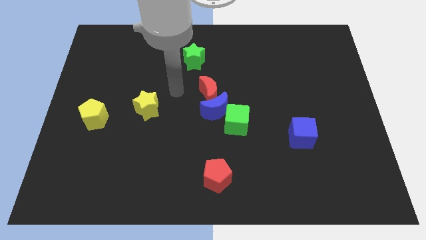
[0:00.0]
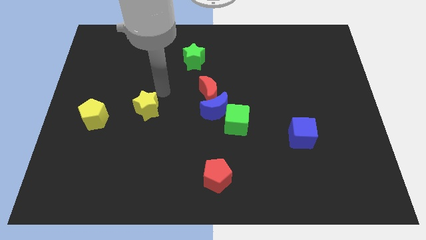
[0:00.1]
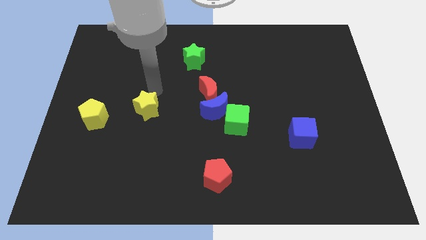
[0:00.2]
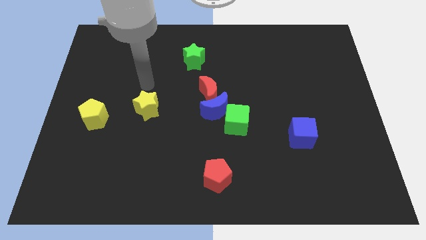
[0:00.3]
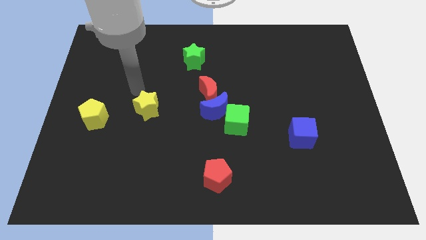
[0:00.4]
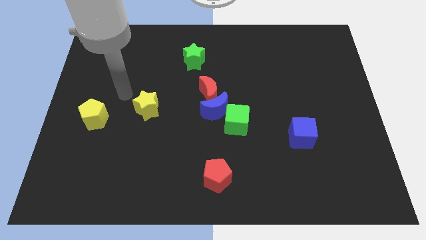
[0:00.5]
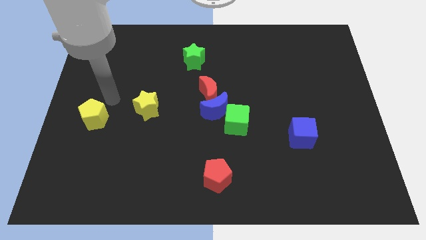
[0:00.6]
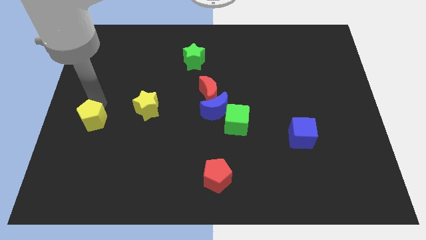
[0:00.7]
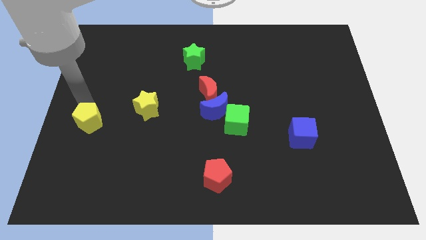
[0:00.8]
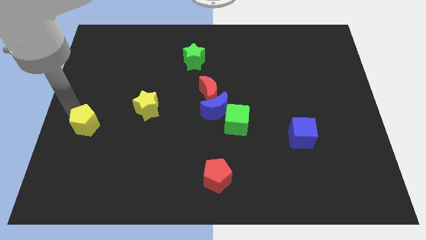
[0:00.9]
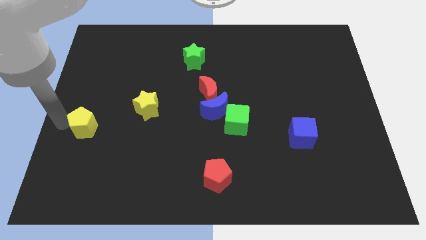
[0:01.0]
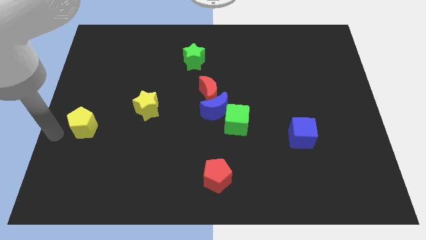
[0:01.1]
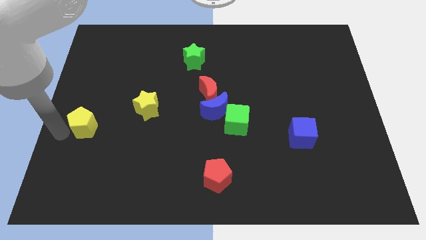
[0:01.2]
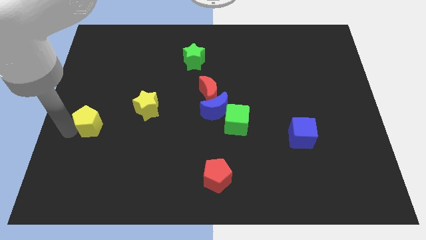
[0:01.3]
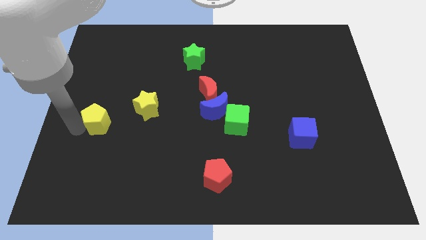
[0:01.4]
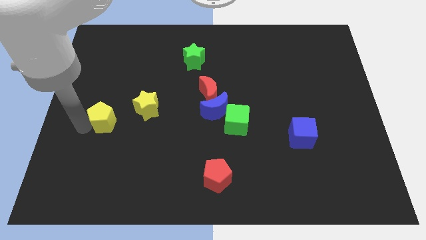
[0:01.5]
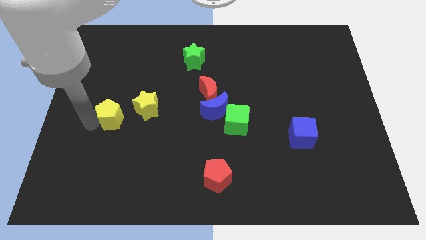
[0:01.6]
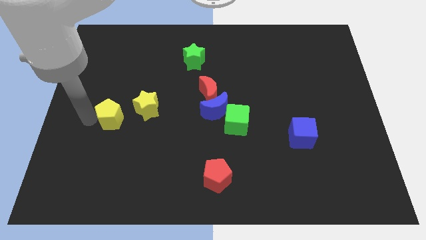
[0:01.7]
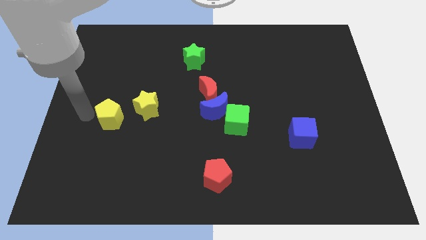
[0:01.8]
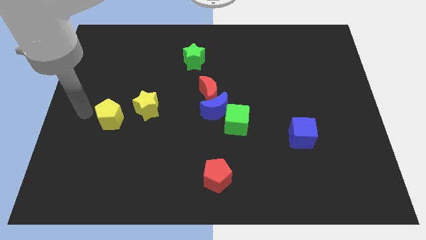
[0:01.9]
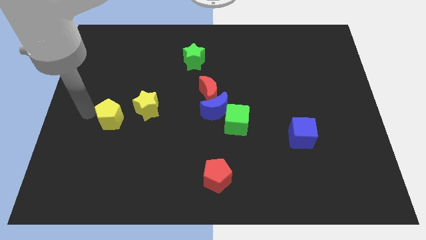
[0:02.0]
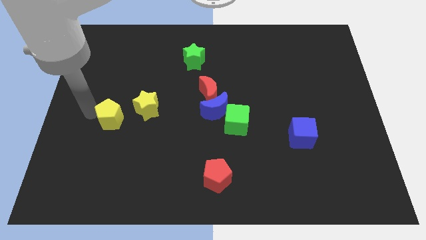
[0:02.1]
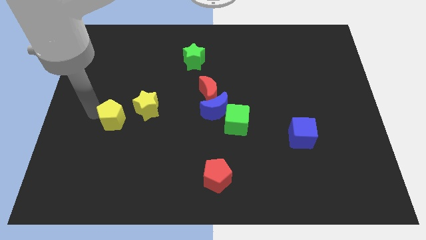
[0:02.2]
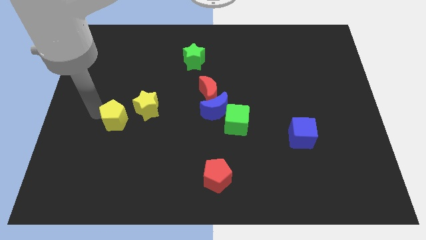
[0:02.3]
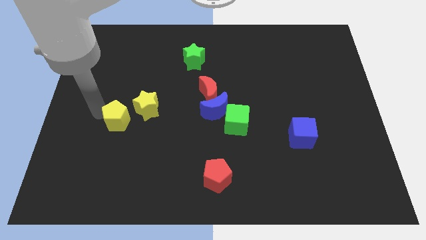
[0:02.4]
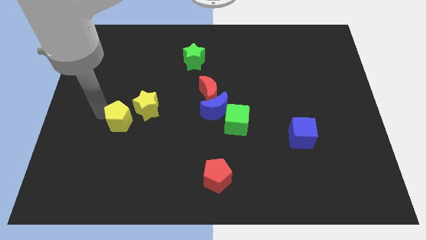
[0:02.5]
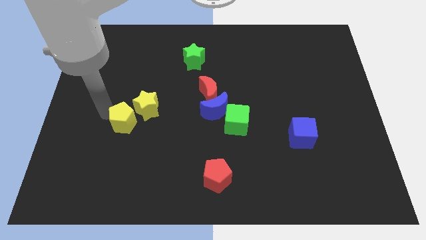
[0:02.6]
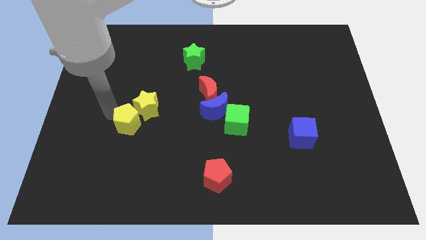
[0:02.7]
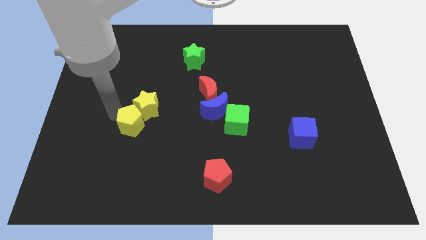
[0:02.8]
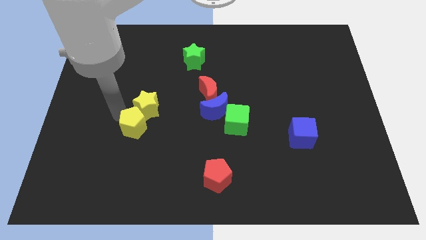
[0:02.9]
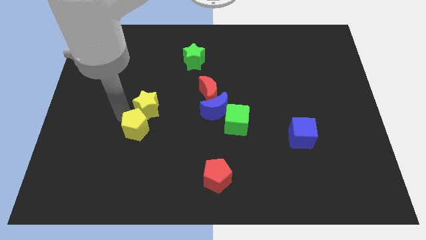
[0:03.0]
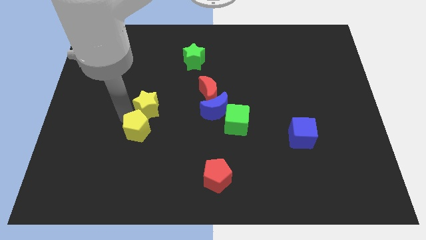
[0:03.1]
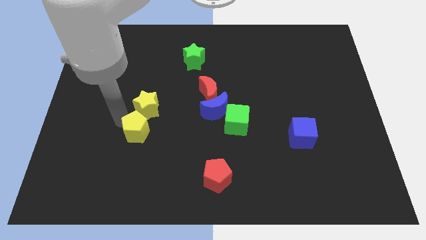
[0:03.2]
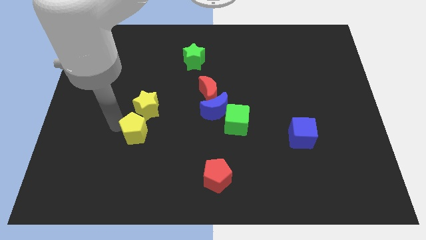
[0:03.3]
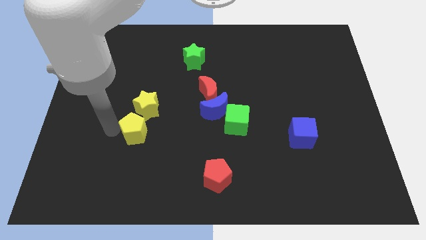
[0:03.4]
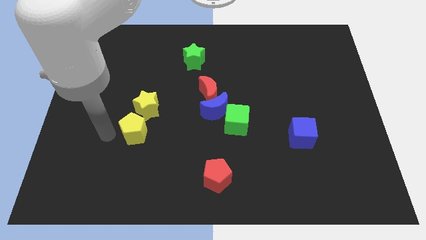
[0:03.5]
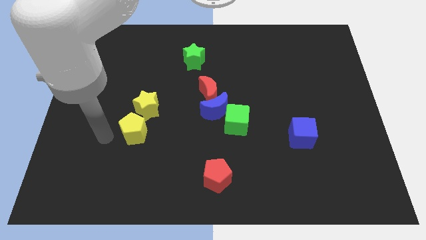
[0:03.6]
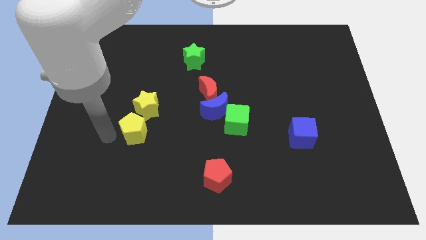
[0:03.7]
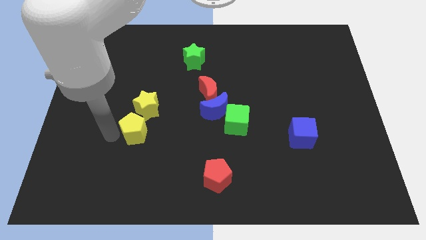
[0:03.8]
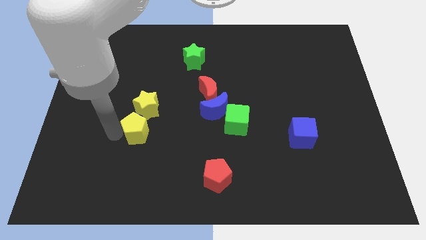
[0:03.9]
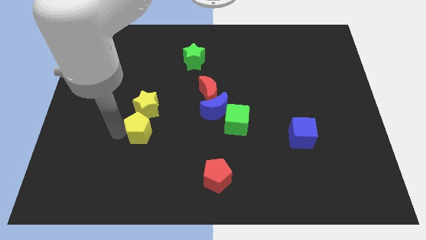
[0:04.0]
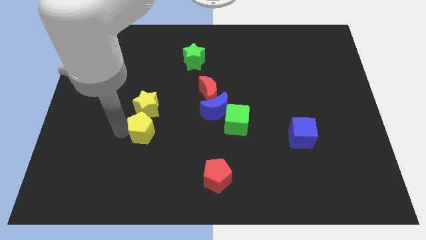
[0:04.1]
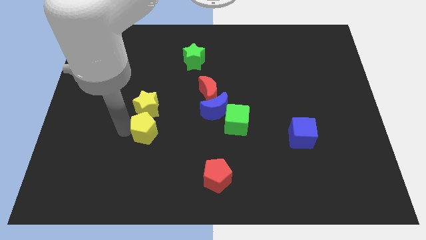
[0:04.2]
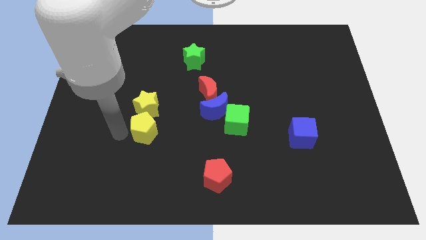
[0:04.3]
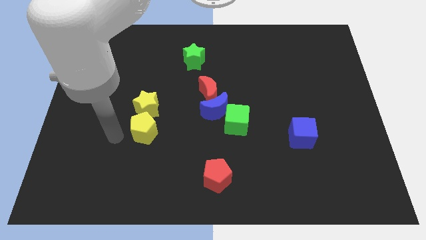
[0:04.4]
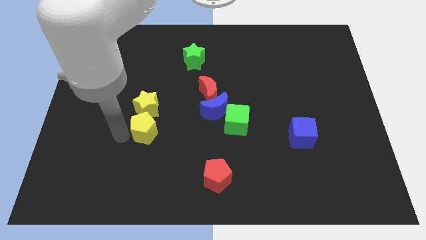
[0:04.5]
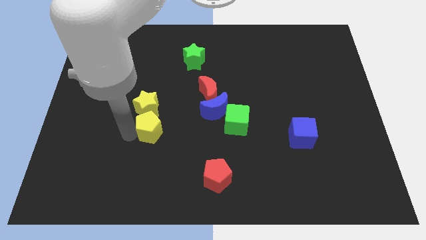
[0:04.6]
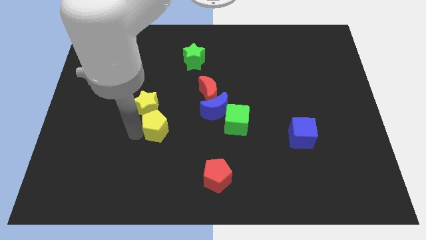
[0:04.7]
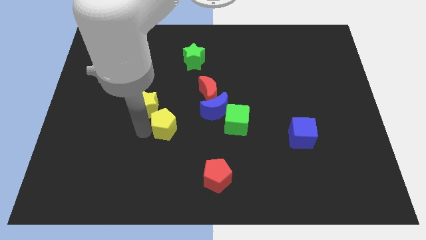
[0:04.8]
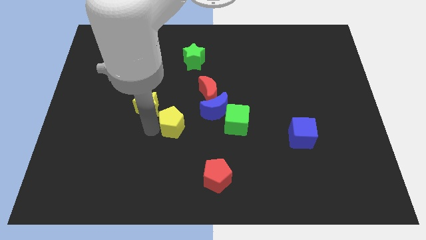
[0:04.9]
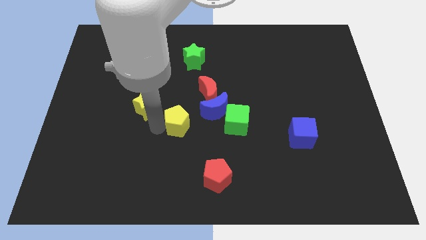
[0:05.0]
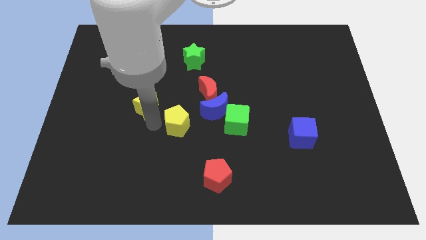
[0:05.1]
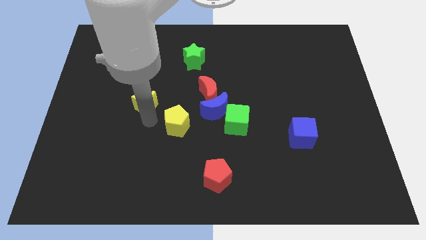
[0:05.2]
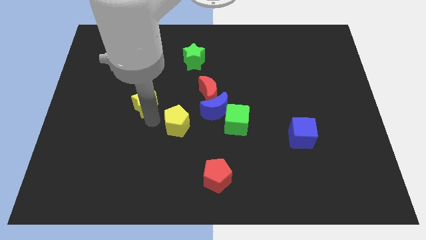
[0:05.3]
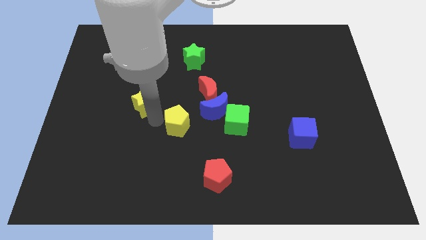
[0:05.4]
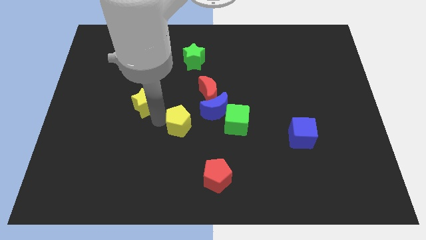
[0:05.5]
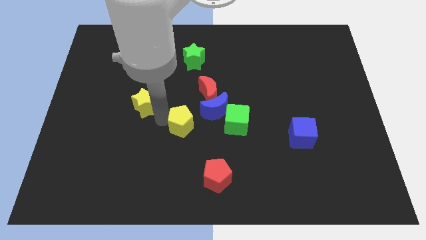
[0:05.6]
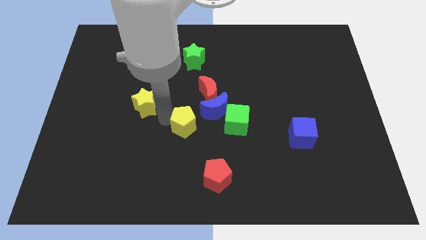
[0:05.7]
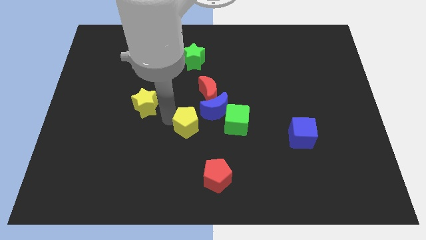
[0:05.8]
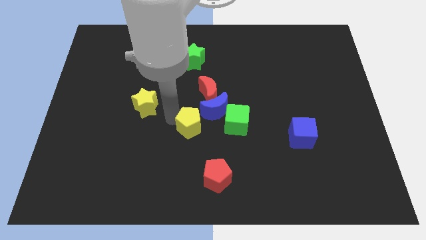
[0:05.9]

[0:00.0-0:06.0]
slide the yellow pentagon to the bottom of the red moon
